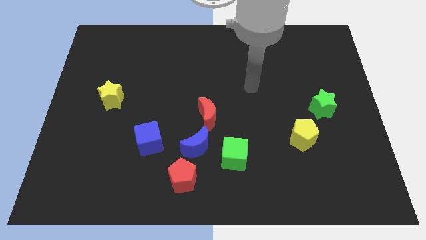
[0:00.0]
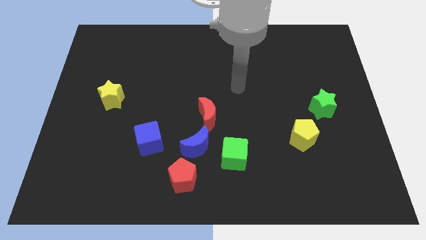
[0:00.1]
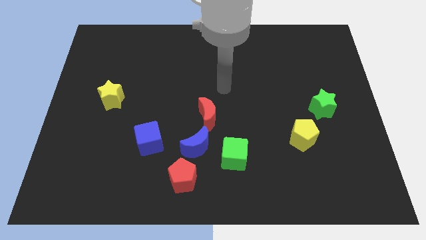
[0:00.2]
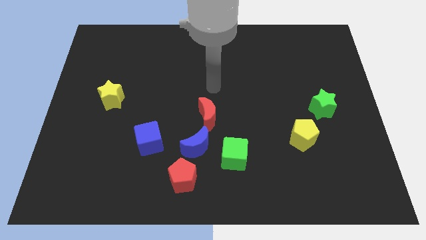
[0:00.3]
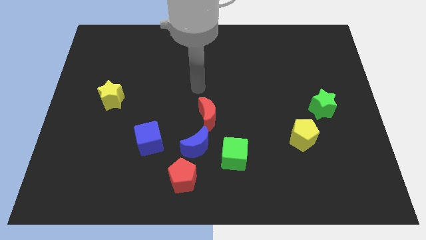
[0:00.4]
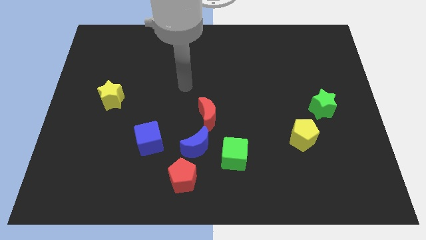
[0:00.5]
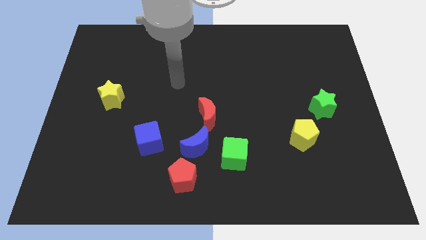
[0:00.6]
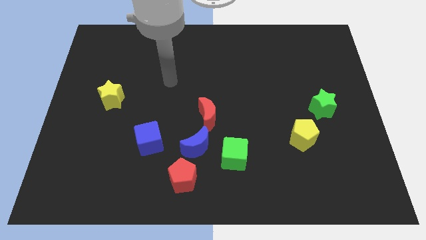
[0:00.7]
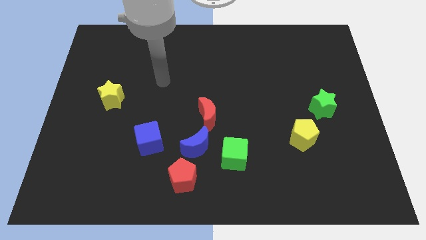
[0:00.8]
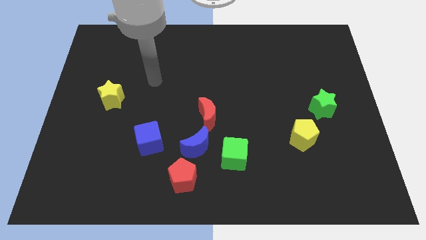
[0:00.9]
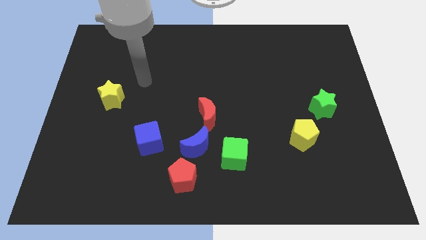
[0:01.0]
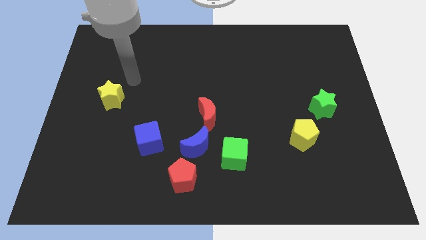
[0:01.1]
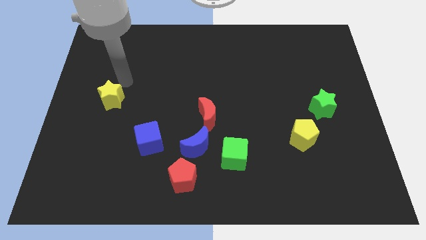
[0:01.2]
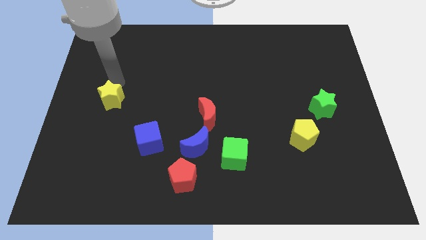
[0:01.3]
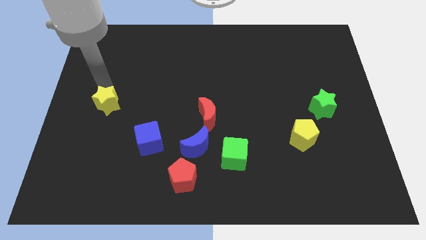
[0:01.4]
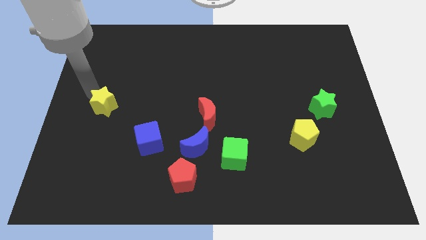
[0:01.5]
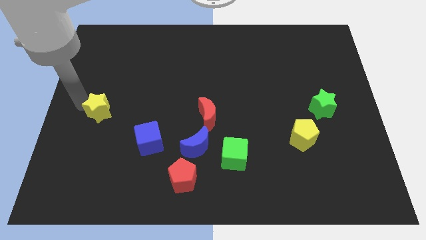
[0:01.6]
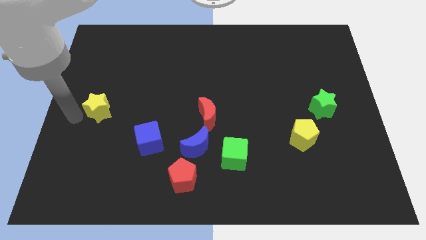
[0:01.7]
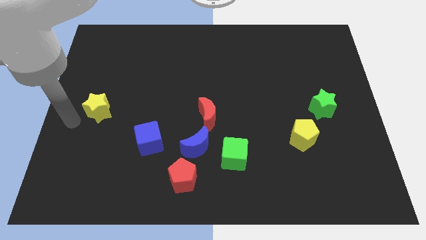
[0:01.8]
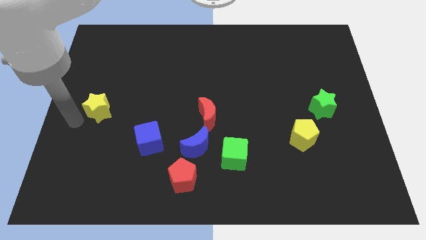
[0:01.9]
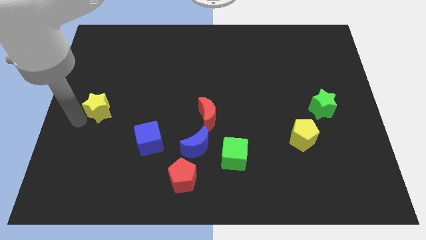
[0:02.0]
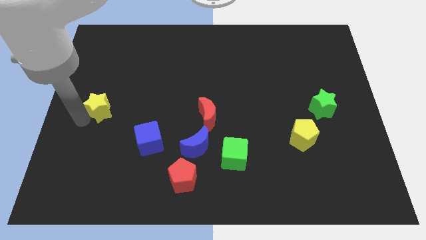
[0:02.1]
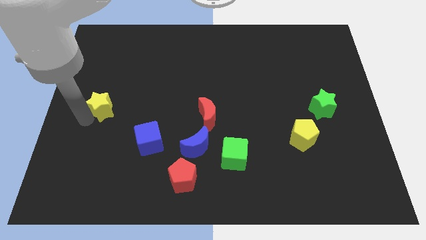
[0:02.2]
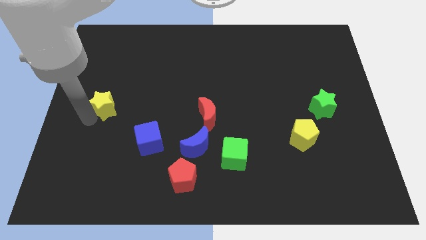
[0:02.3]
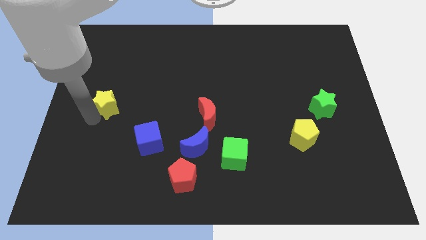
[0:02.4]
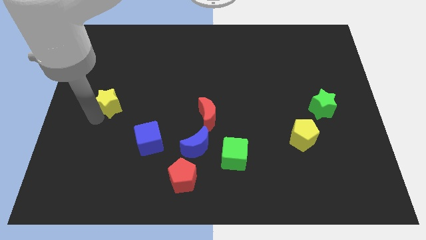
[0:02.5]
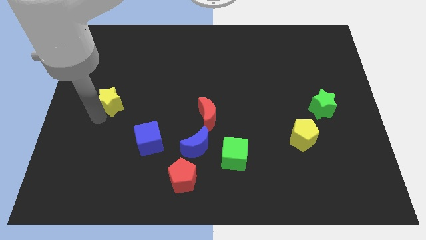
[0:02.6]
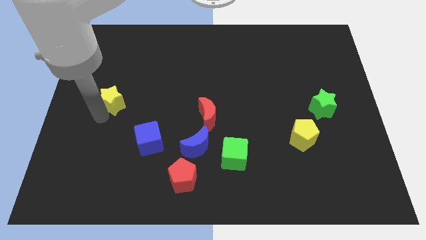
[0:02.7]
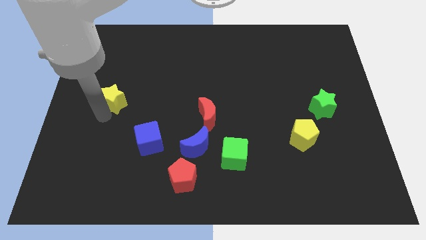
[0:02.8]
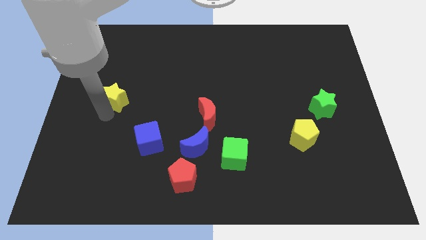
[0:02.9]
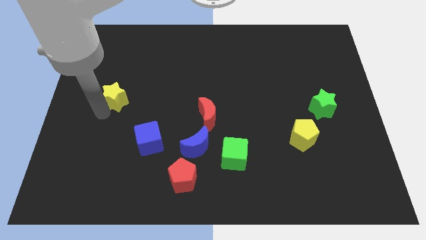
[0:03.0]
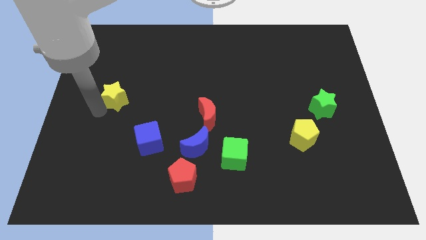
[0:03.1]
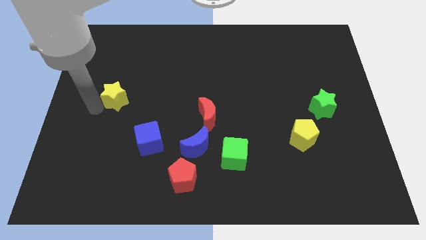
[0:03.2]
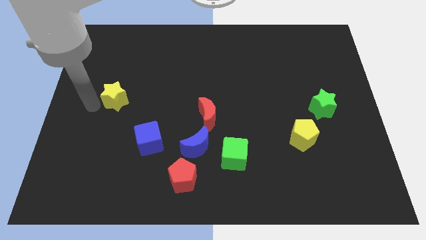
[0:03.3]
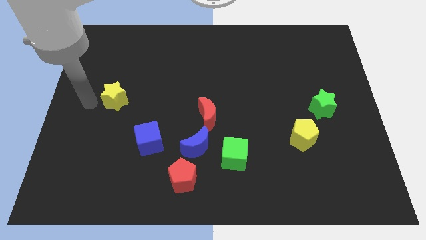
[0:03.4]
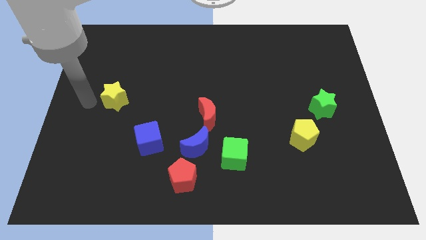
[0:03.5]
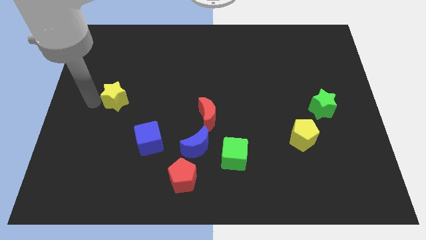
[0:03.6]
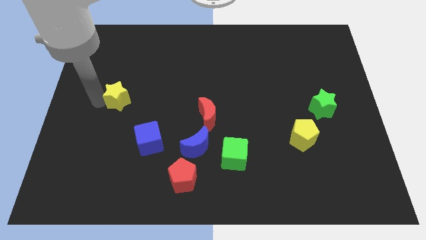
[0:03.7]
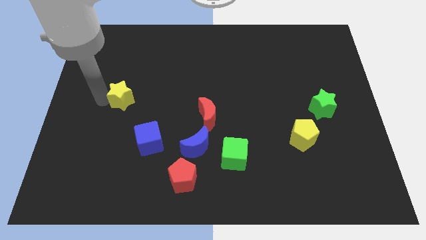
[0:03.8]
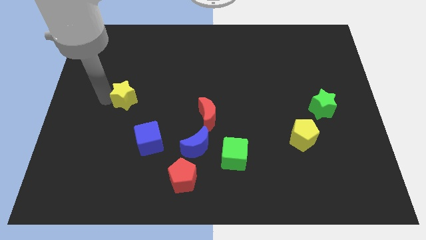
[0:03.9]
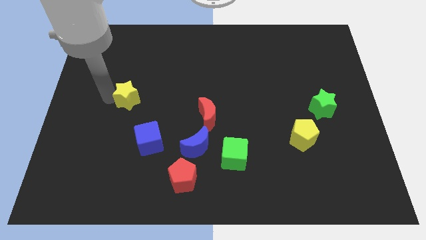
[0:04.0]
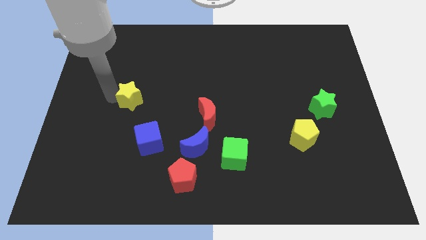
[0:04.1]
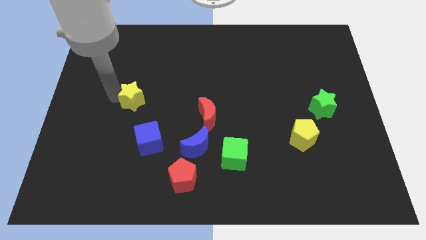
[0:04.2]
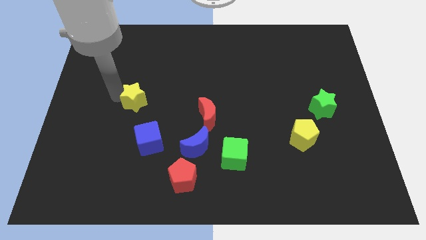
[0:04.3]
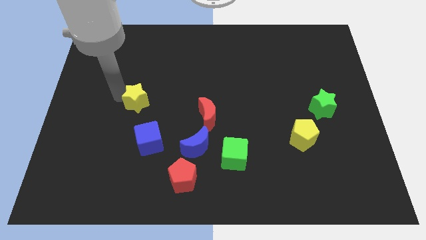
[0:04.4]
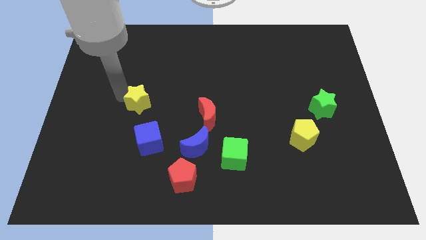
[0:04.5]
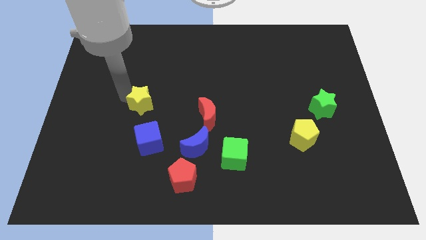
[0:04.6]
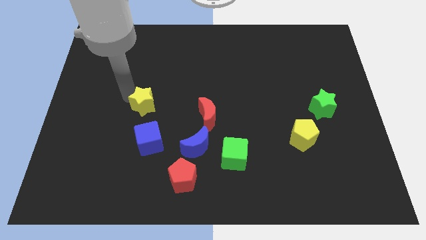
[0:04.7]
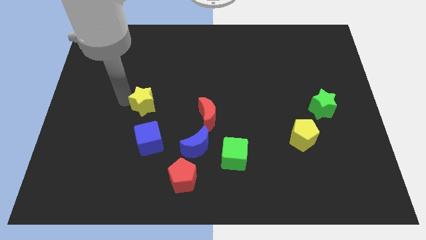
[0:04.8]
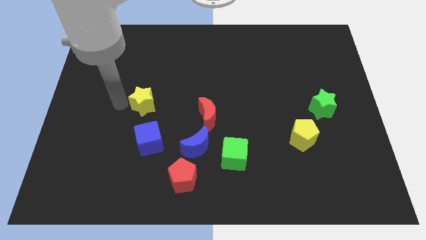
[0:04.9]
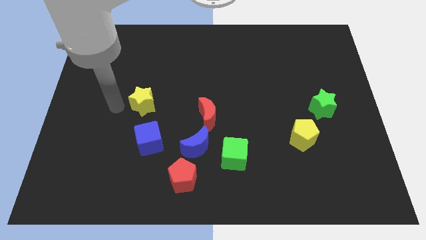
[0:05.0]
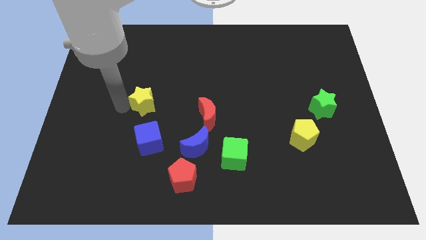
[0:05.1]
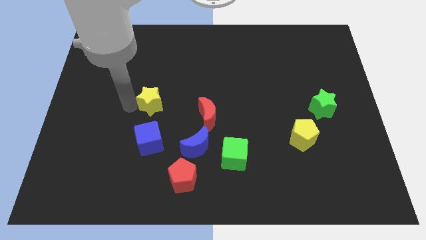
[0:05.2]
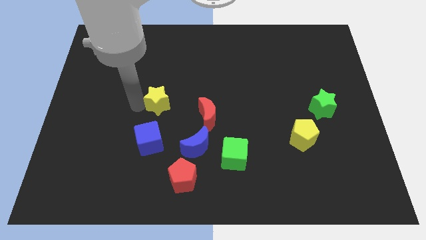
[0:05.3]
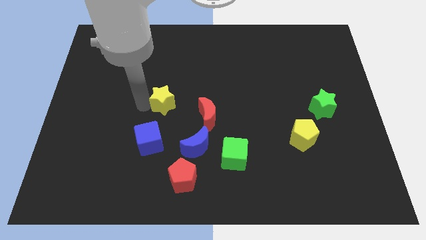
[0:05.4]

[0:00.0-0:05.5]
move the yellow star to the middle of the board

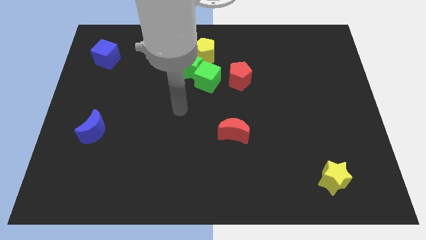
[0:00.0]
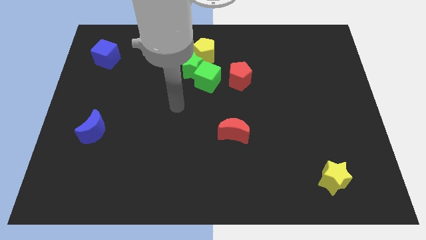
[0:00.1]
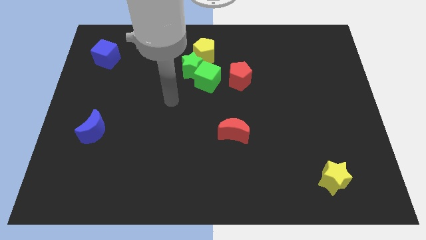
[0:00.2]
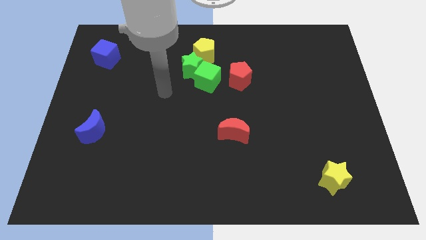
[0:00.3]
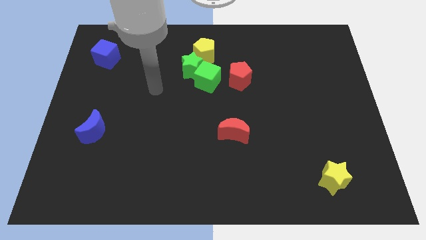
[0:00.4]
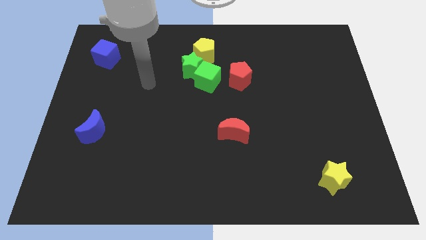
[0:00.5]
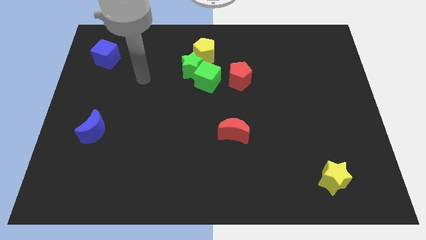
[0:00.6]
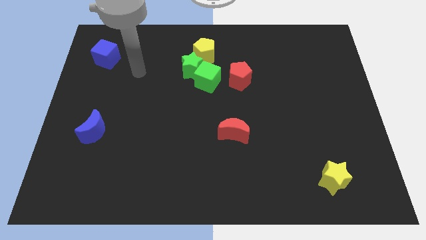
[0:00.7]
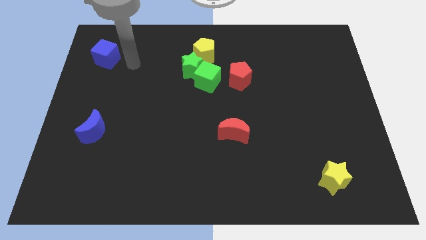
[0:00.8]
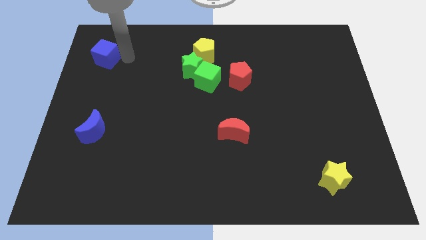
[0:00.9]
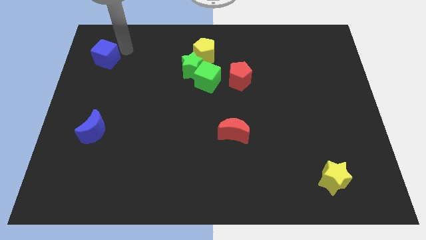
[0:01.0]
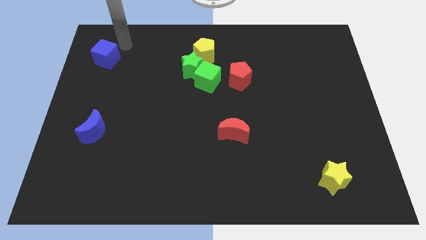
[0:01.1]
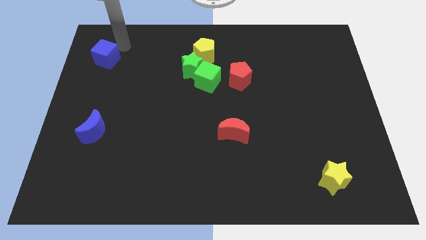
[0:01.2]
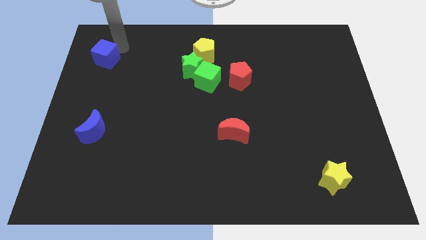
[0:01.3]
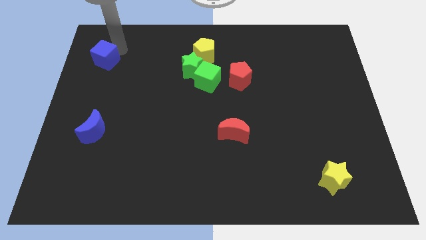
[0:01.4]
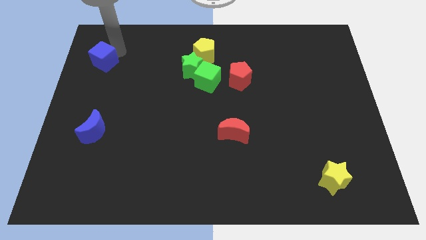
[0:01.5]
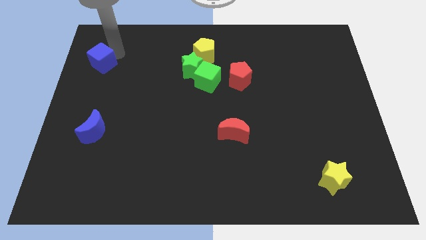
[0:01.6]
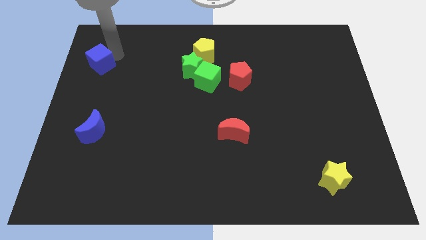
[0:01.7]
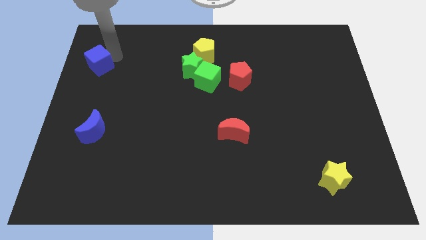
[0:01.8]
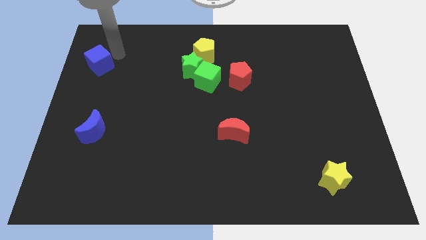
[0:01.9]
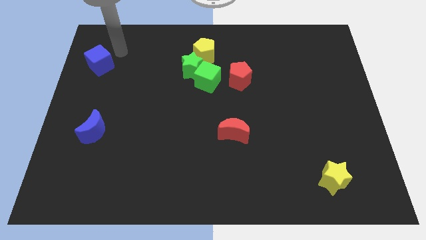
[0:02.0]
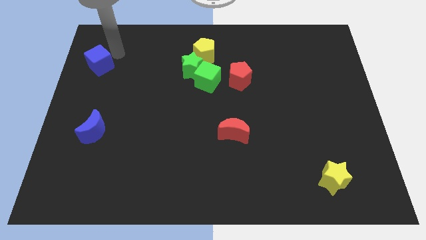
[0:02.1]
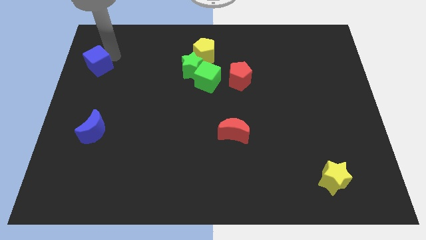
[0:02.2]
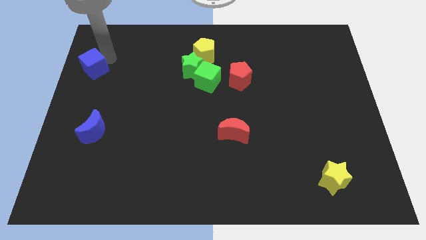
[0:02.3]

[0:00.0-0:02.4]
move the blue cube to the left side of the board
